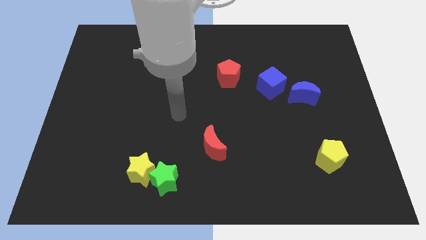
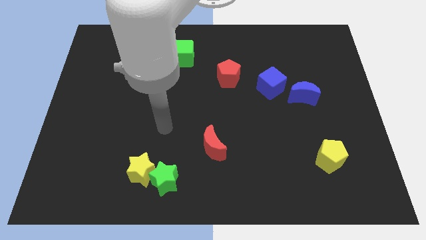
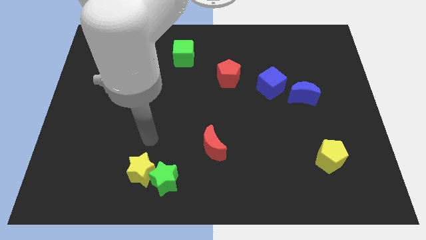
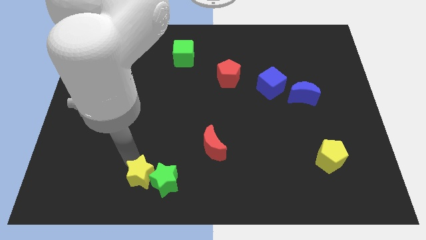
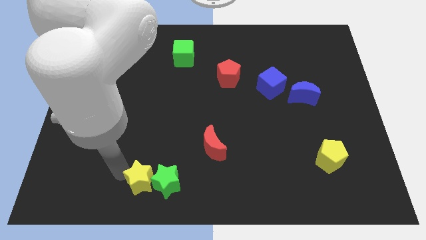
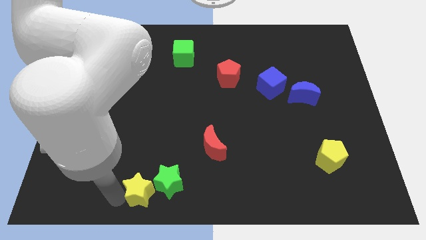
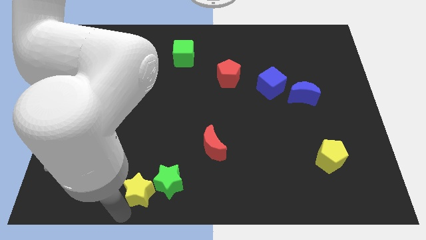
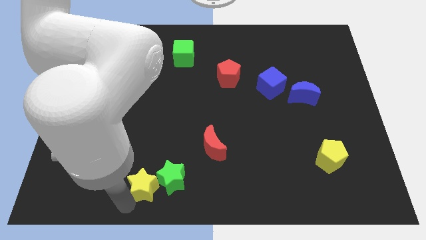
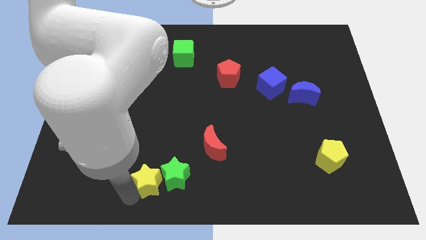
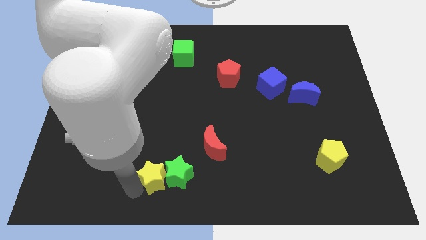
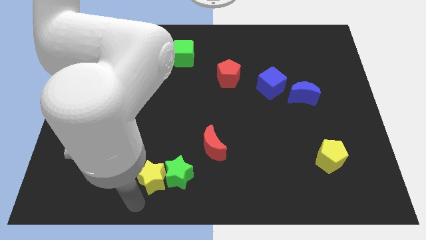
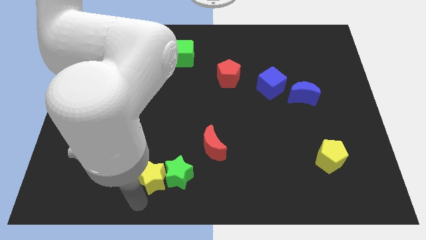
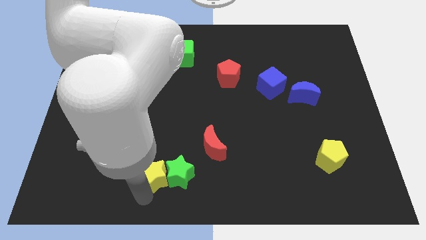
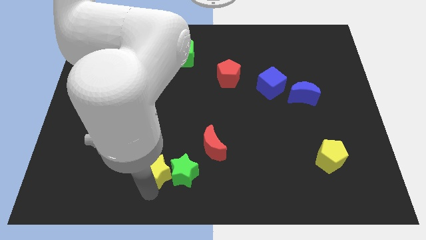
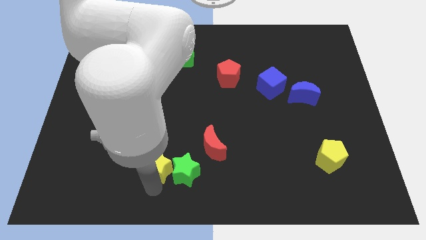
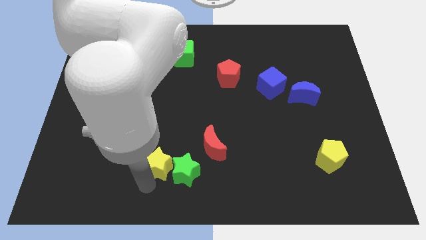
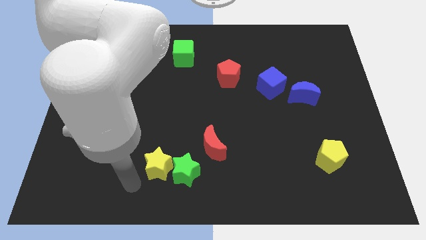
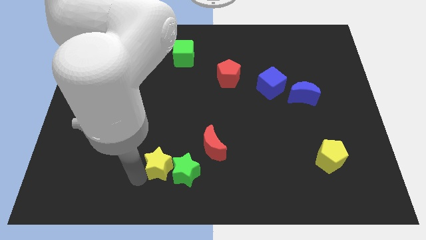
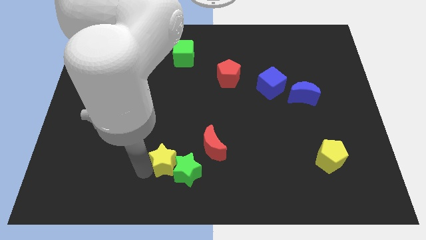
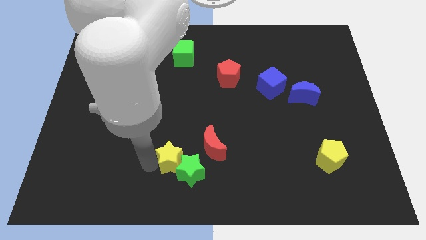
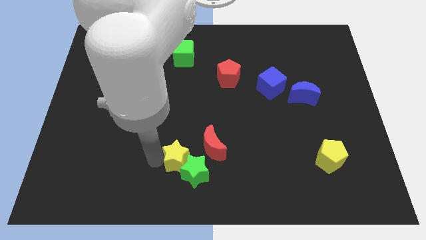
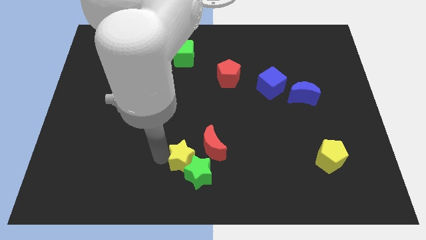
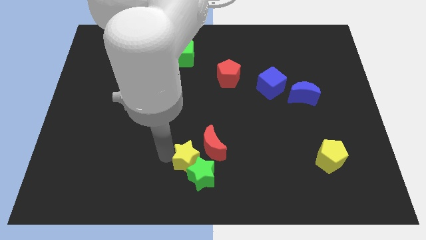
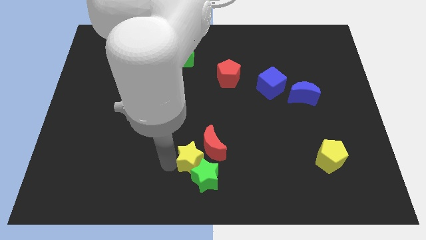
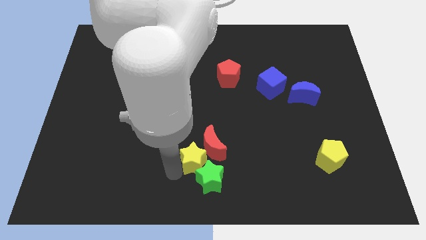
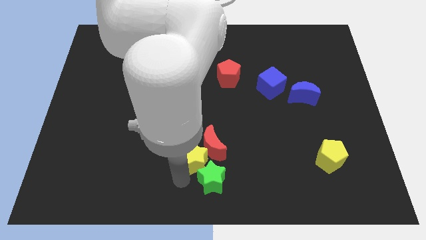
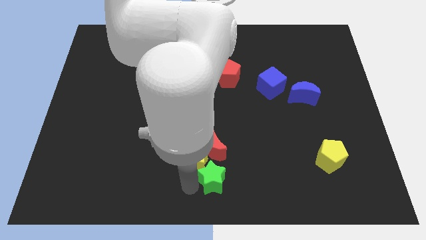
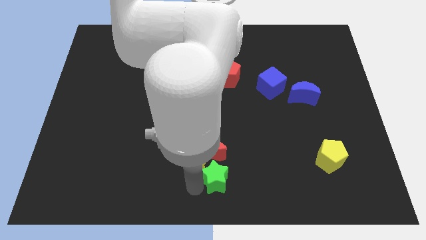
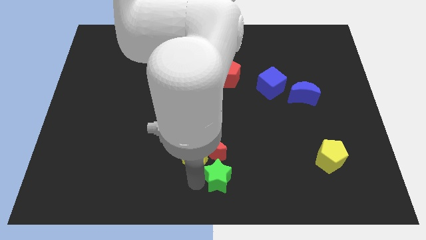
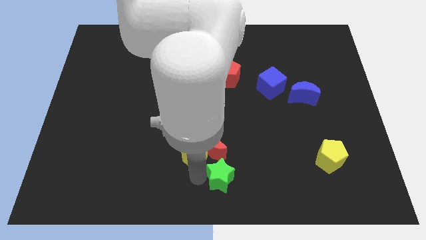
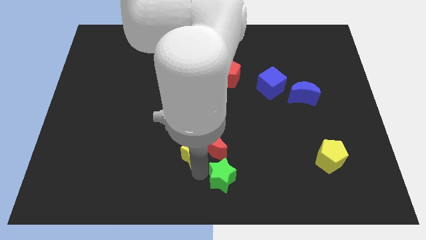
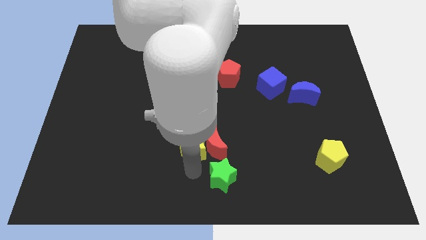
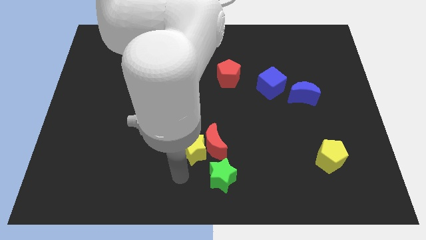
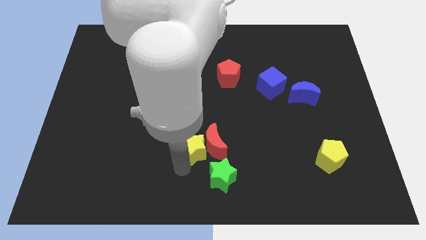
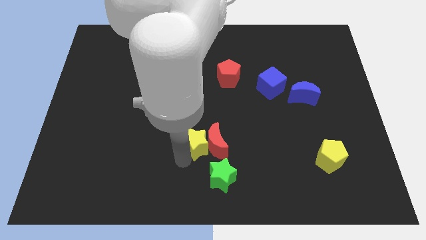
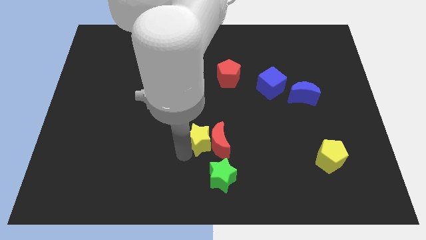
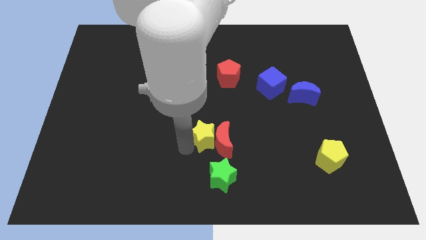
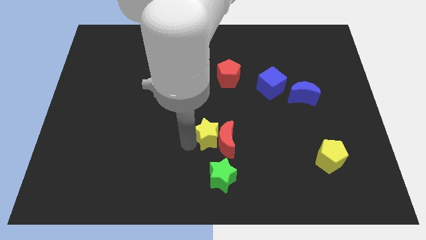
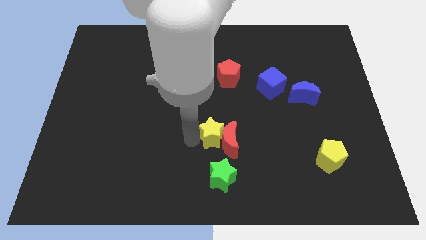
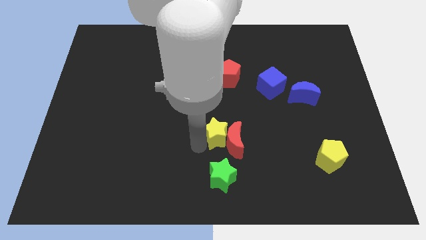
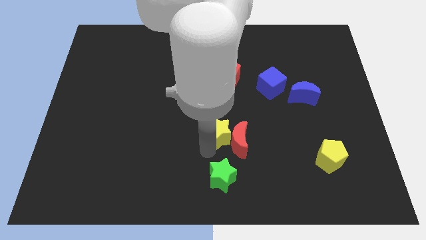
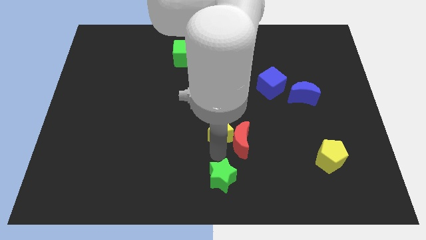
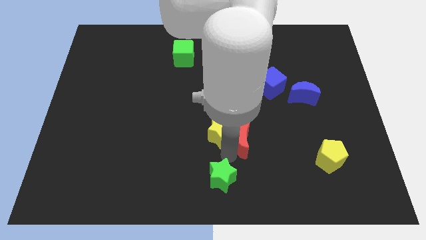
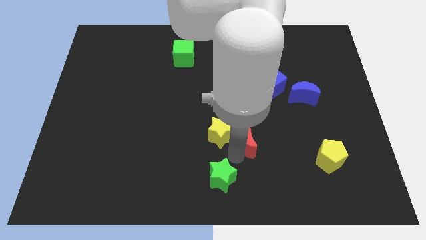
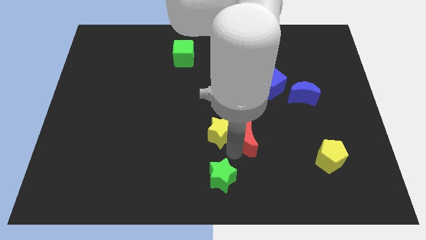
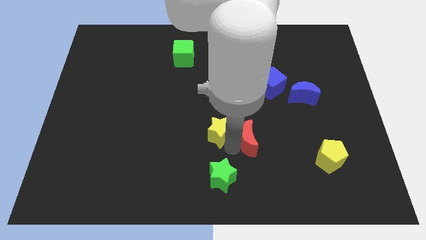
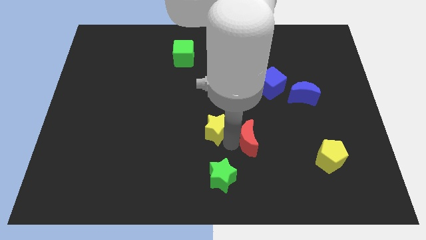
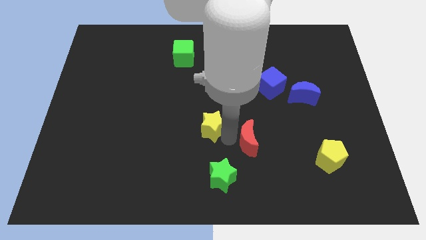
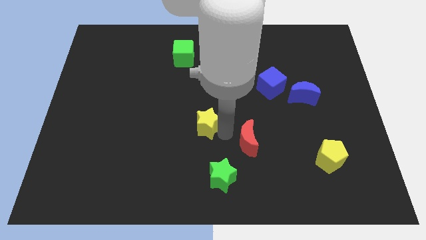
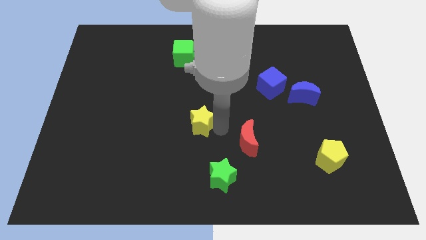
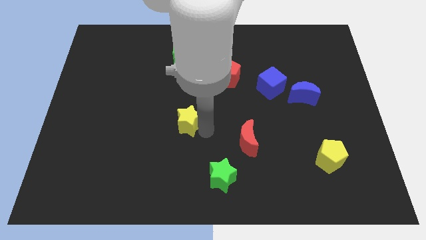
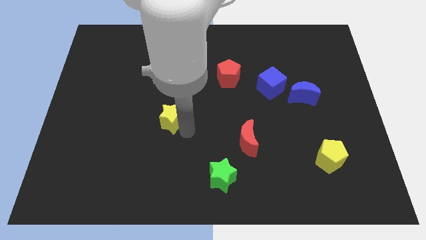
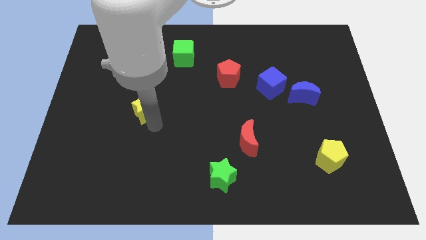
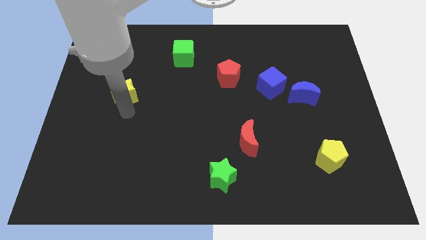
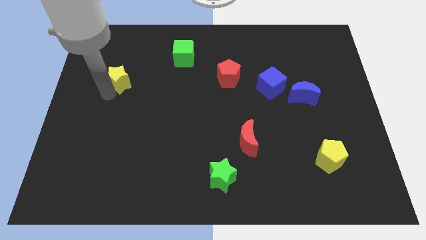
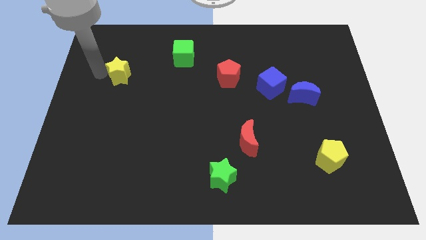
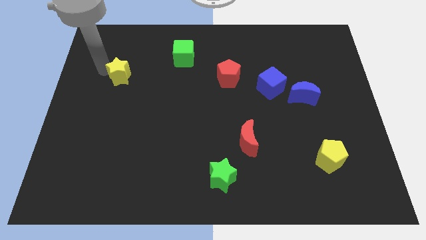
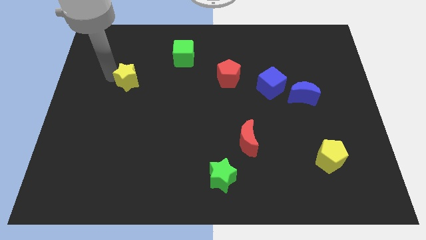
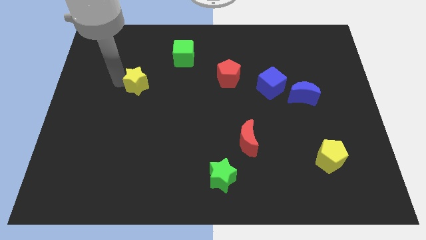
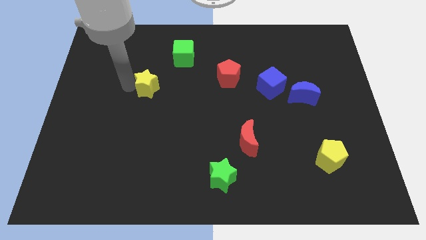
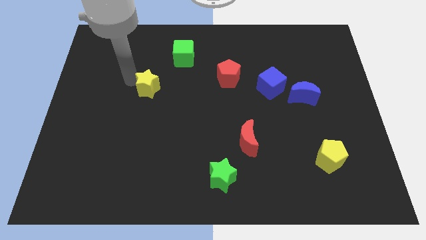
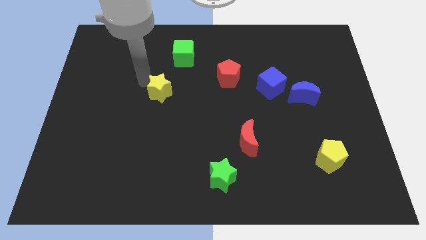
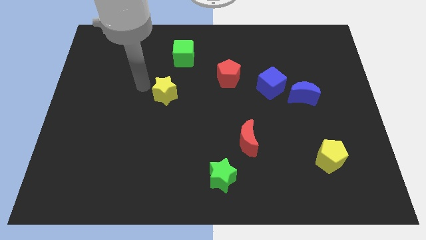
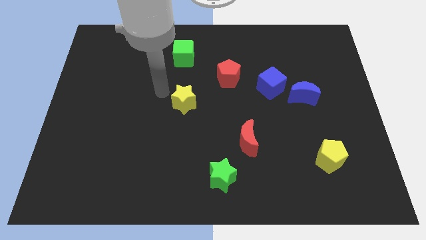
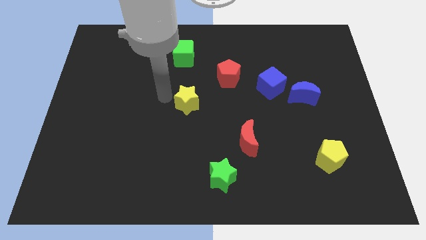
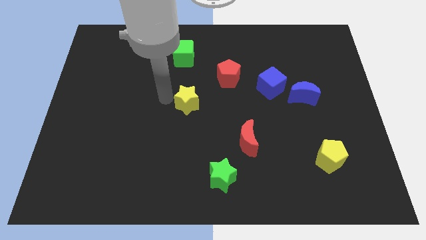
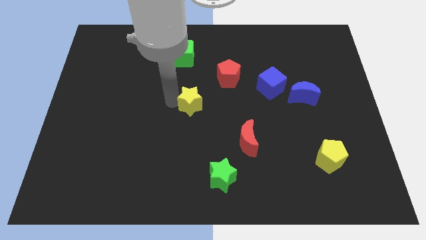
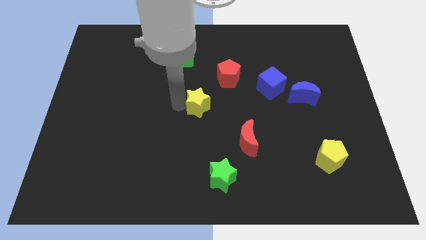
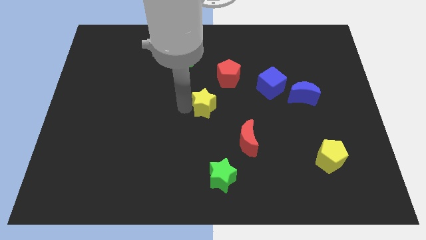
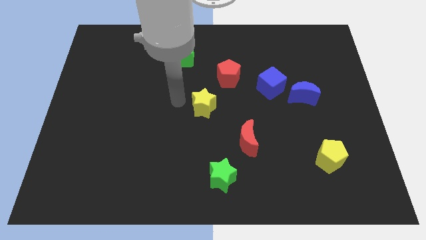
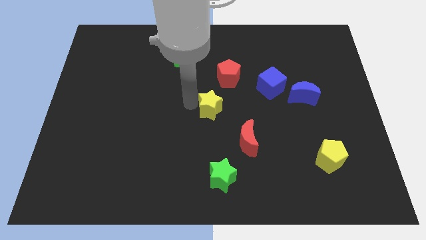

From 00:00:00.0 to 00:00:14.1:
slide the yellow star to the bottom of the red pentagon
